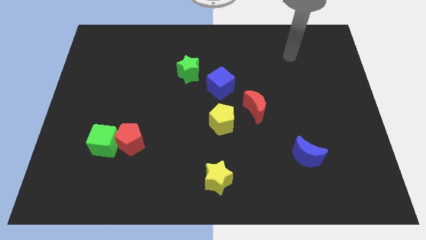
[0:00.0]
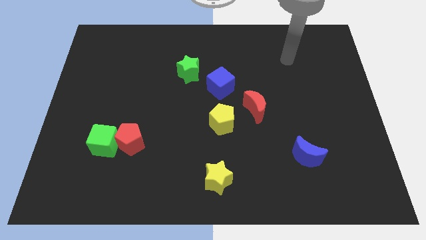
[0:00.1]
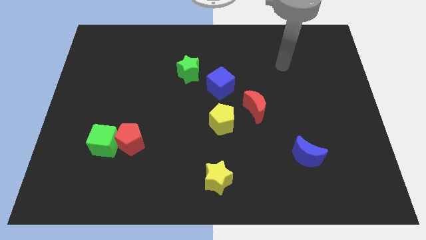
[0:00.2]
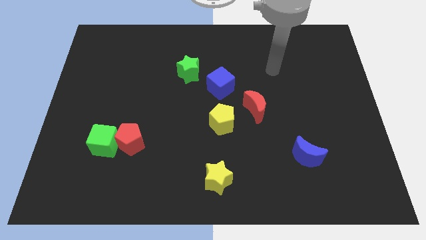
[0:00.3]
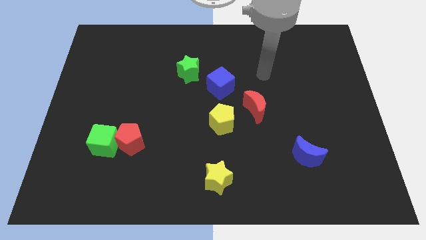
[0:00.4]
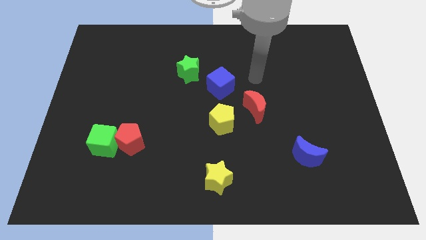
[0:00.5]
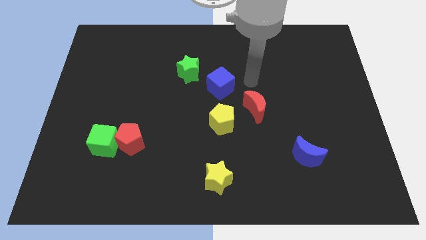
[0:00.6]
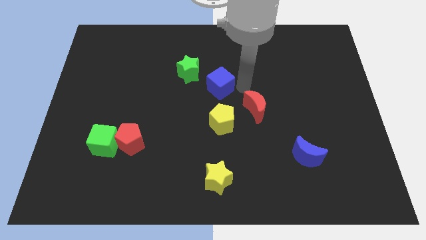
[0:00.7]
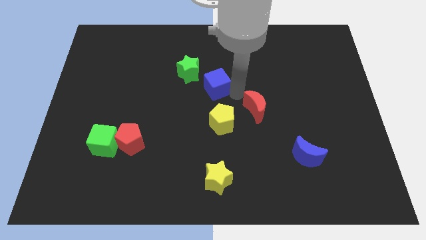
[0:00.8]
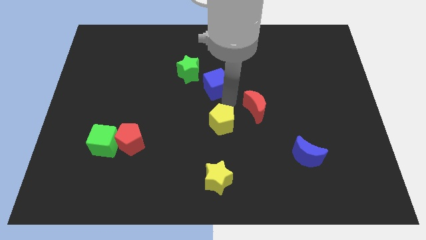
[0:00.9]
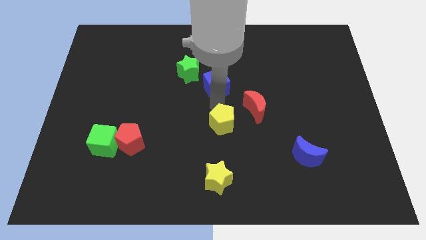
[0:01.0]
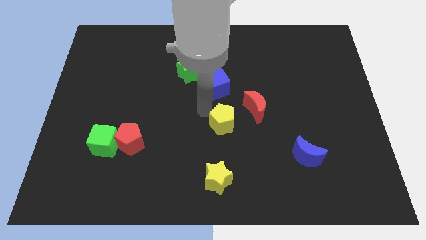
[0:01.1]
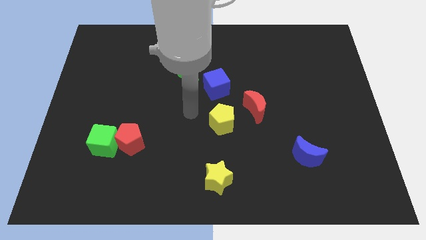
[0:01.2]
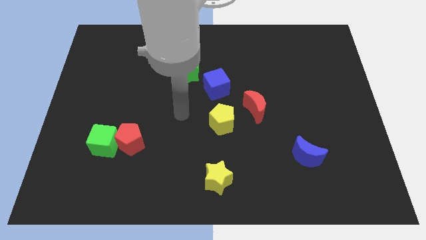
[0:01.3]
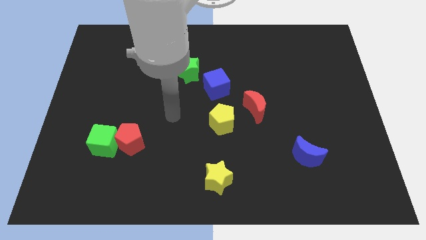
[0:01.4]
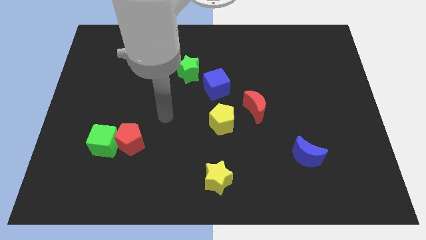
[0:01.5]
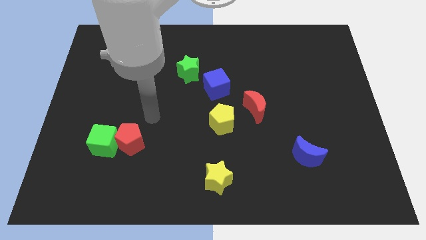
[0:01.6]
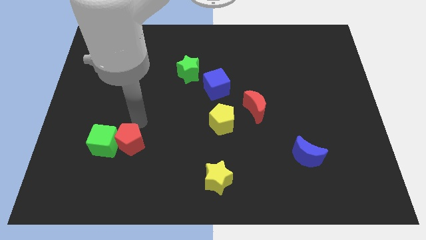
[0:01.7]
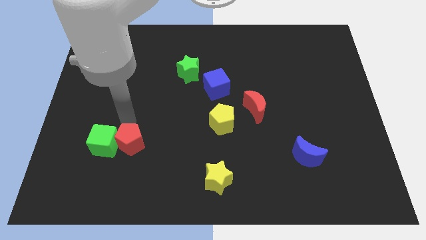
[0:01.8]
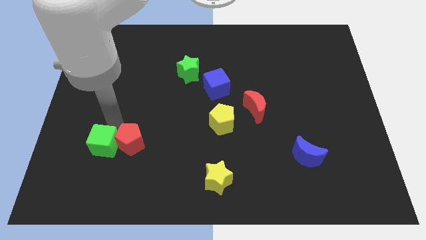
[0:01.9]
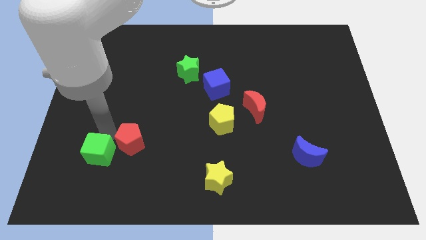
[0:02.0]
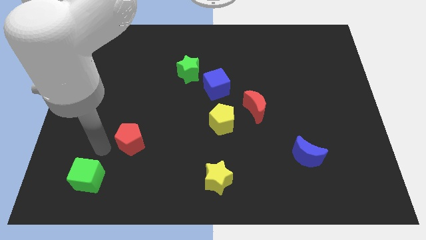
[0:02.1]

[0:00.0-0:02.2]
separate the red pentagon from the green cube

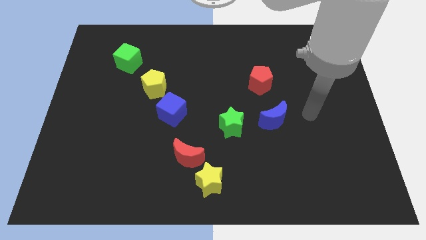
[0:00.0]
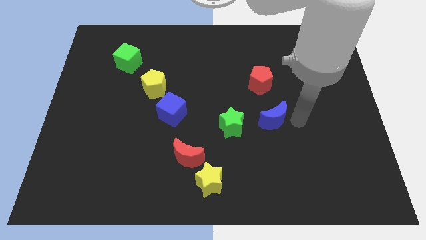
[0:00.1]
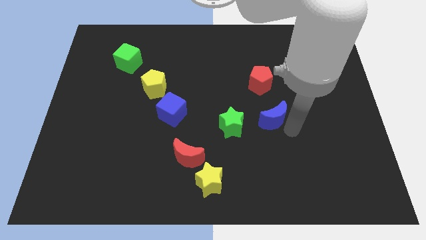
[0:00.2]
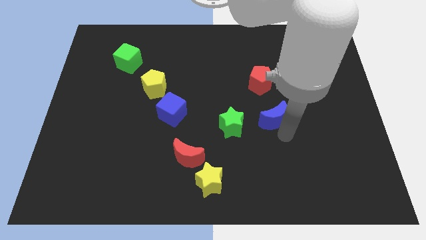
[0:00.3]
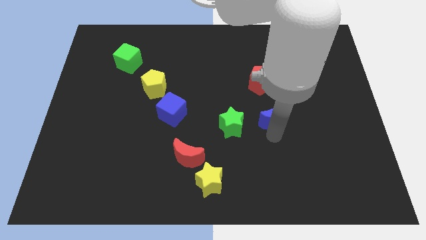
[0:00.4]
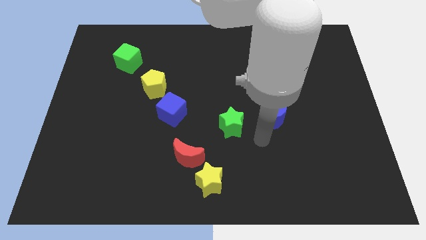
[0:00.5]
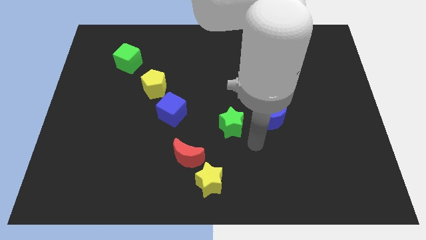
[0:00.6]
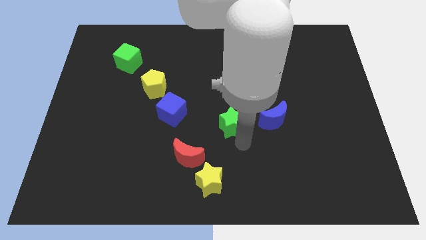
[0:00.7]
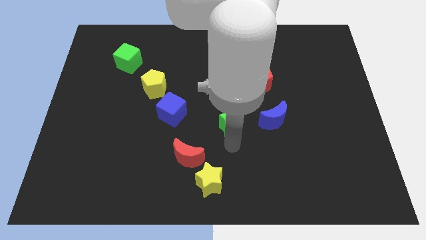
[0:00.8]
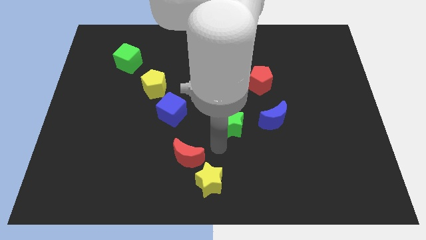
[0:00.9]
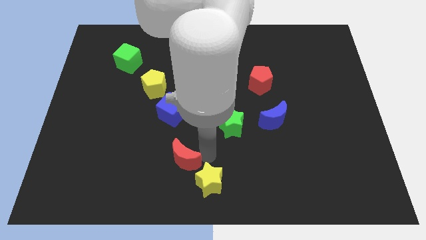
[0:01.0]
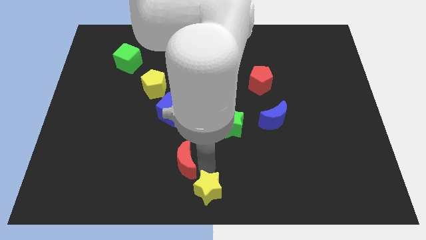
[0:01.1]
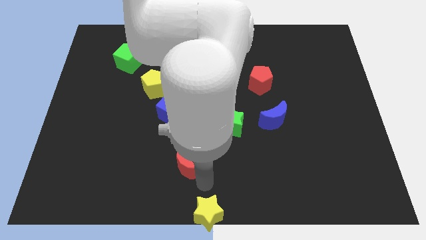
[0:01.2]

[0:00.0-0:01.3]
move the red moon away from the yellow star

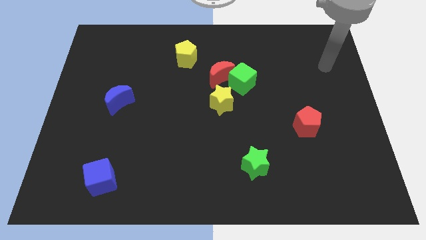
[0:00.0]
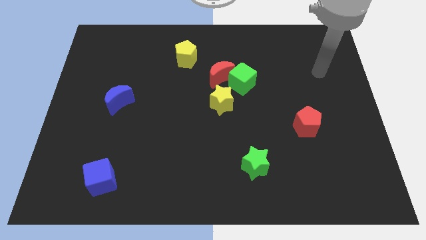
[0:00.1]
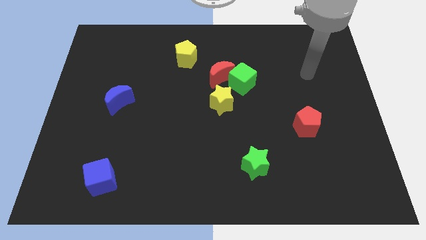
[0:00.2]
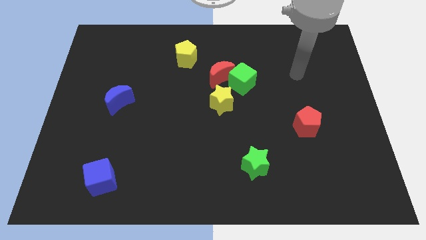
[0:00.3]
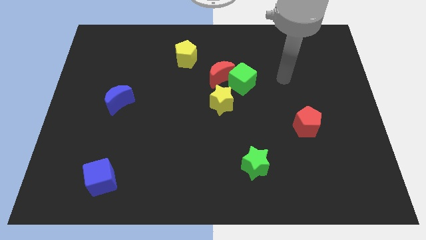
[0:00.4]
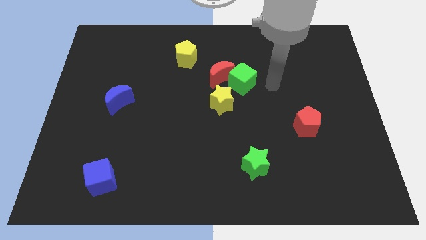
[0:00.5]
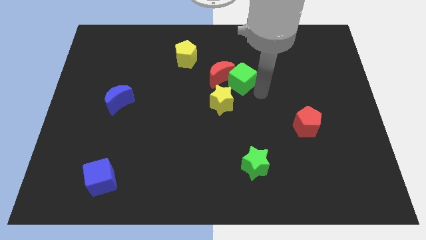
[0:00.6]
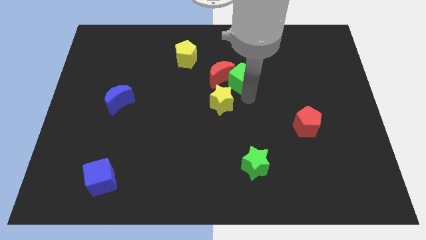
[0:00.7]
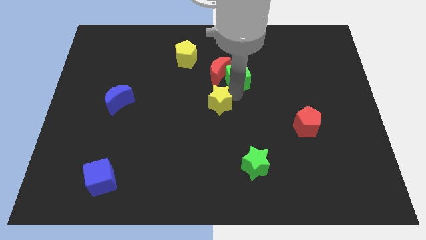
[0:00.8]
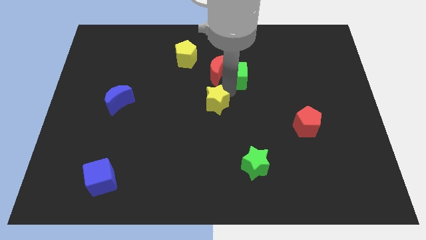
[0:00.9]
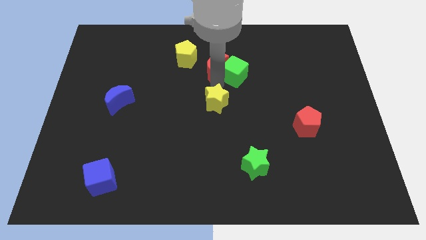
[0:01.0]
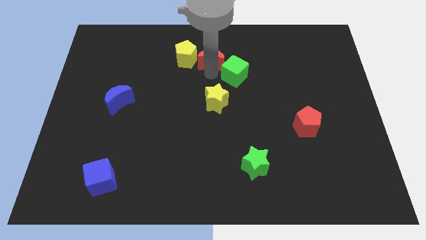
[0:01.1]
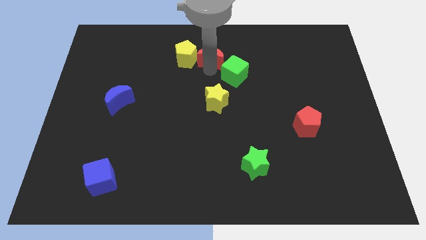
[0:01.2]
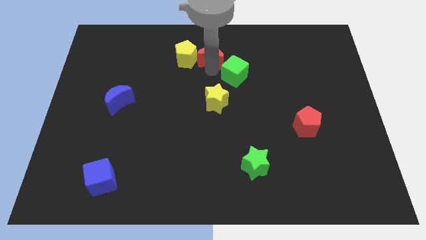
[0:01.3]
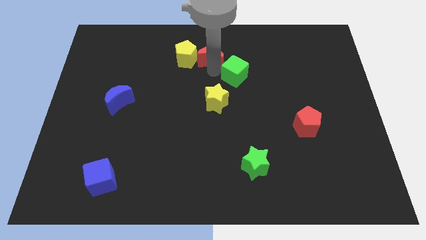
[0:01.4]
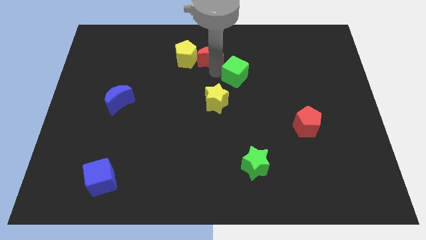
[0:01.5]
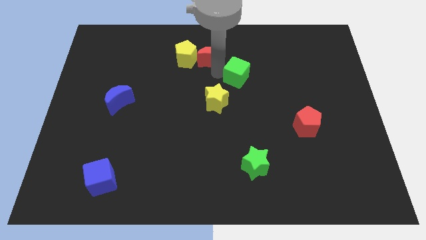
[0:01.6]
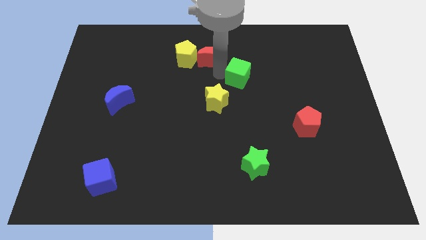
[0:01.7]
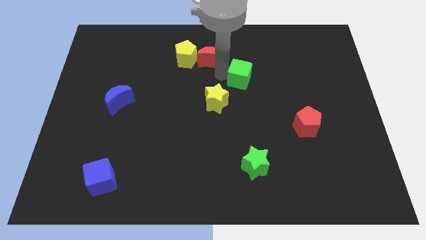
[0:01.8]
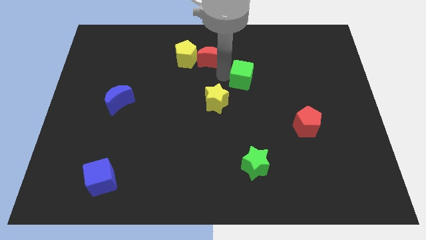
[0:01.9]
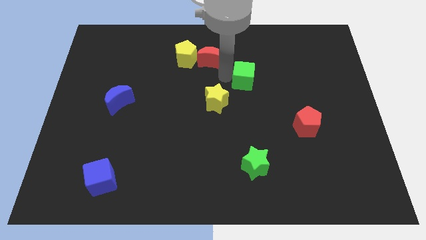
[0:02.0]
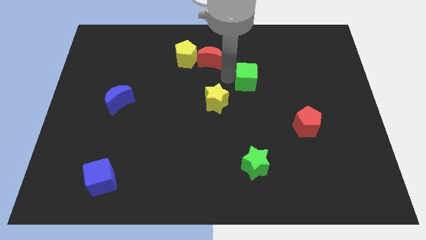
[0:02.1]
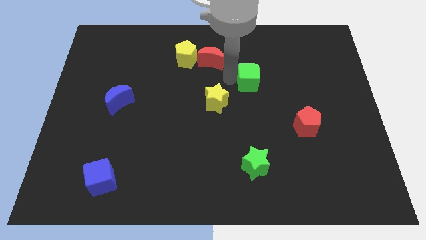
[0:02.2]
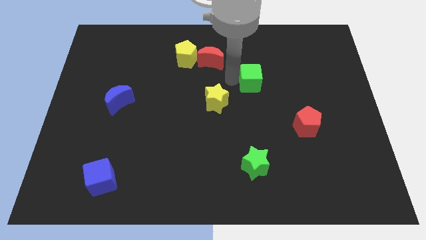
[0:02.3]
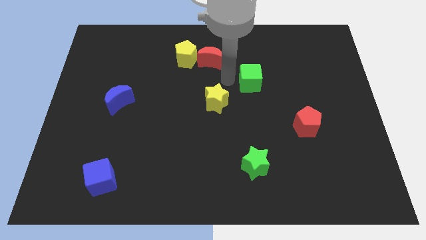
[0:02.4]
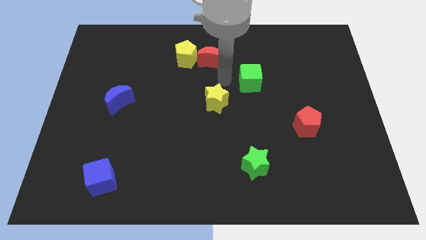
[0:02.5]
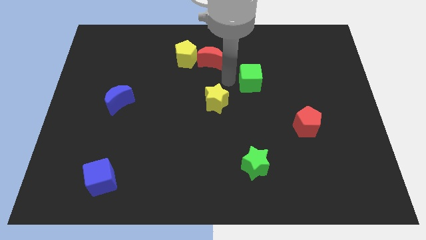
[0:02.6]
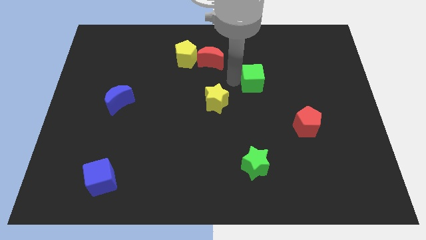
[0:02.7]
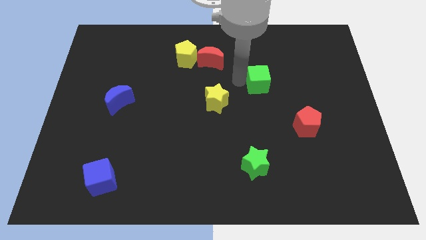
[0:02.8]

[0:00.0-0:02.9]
separate the green cube from the red moon and yellow star

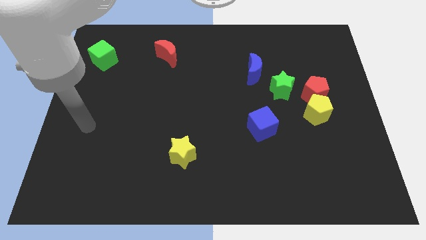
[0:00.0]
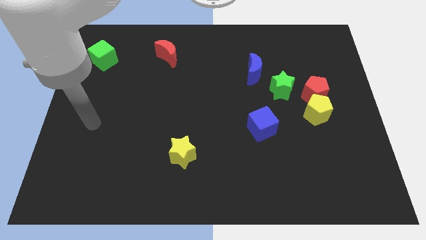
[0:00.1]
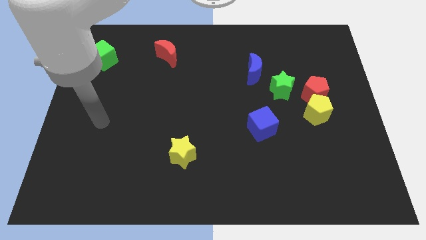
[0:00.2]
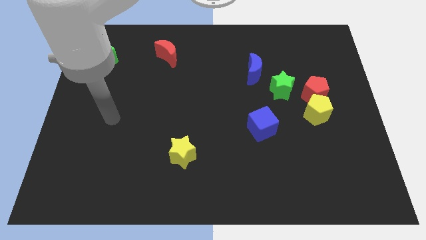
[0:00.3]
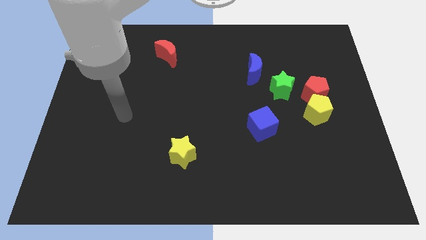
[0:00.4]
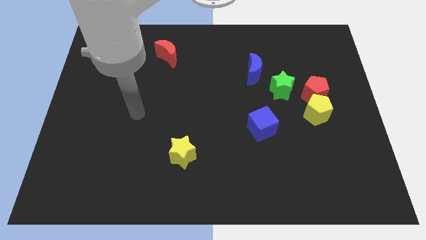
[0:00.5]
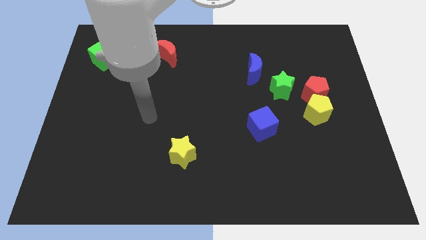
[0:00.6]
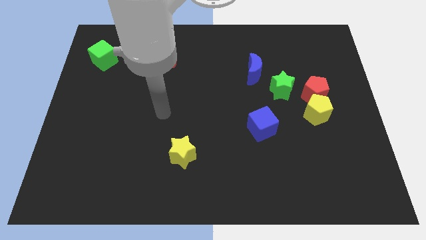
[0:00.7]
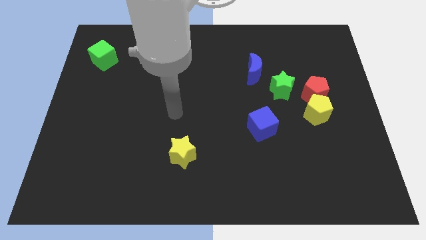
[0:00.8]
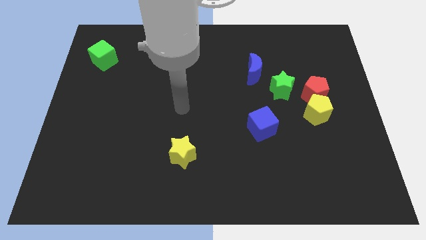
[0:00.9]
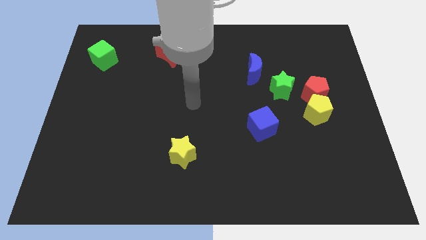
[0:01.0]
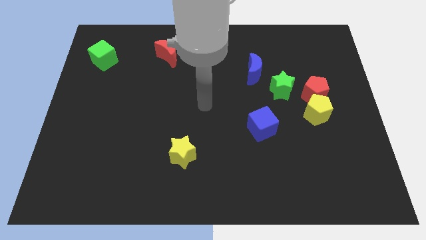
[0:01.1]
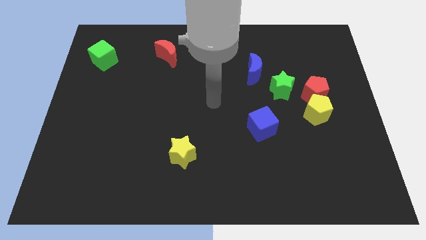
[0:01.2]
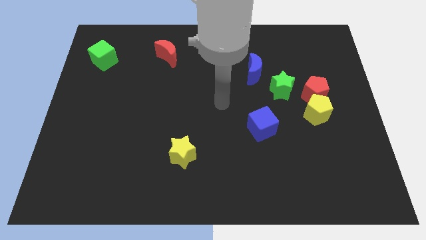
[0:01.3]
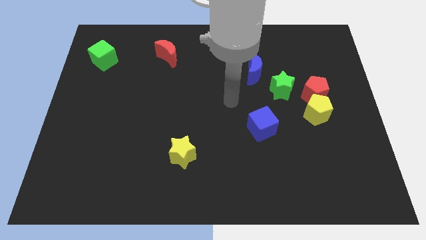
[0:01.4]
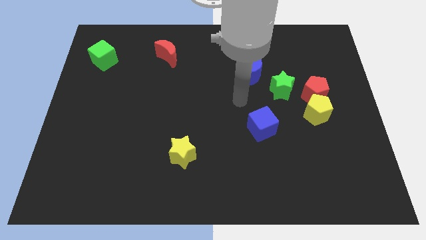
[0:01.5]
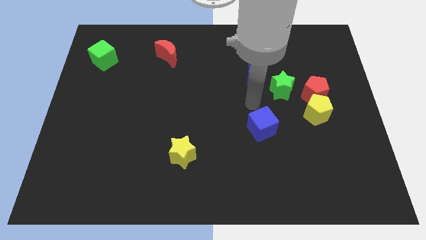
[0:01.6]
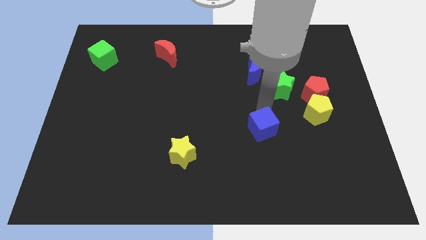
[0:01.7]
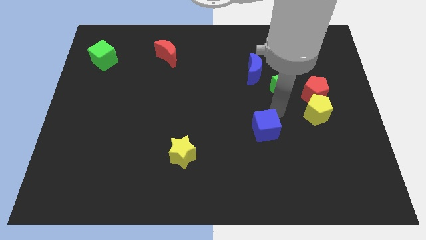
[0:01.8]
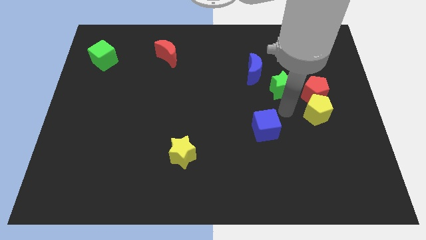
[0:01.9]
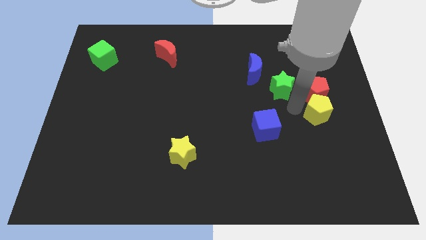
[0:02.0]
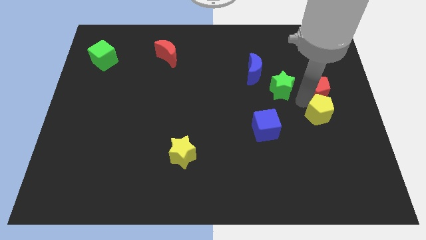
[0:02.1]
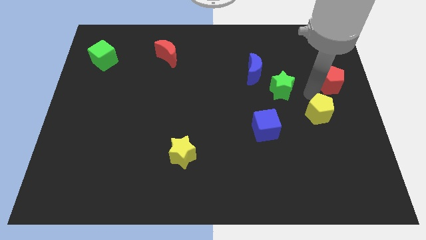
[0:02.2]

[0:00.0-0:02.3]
move the yellow pentagon away from the red pentagon

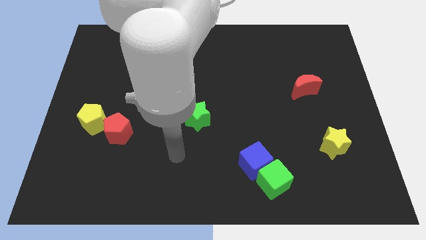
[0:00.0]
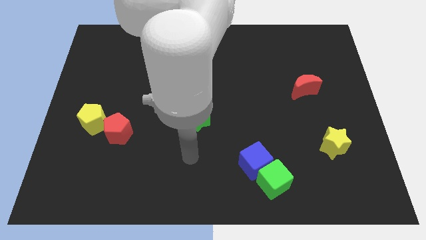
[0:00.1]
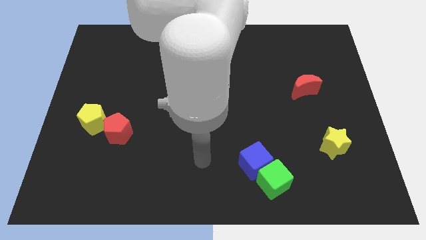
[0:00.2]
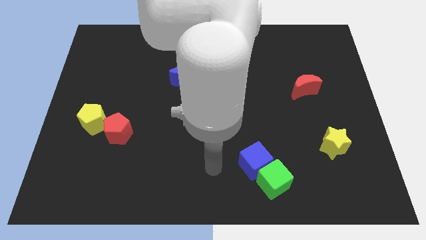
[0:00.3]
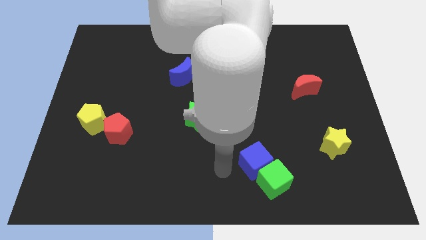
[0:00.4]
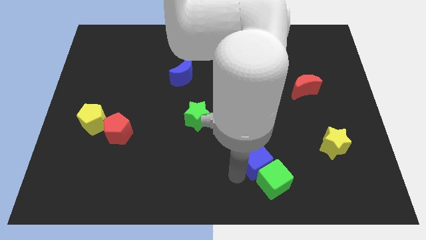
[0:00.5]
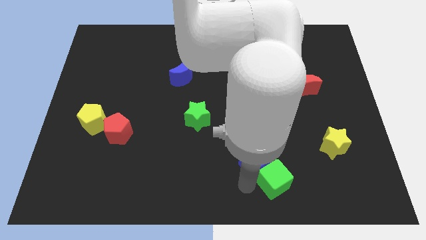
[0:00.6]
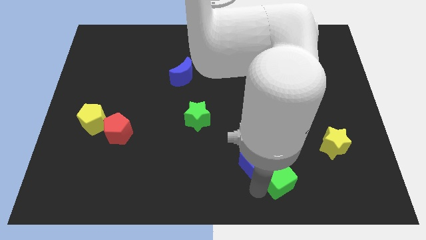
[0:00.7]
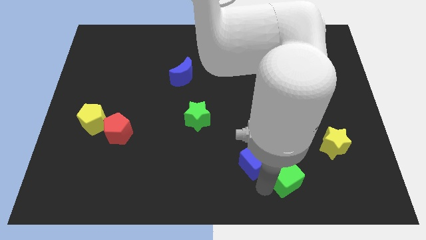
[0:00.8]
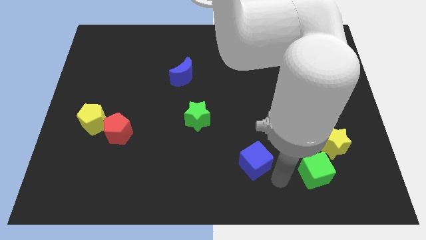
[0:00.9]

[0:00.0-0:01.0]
separate the blue cube from the green cube
